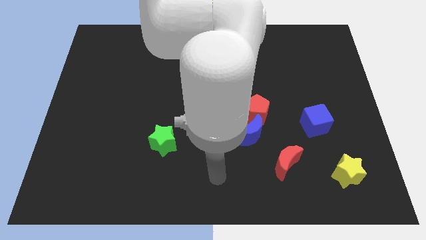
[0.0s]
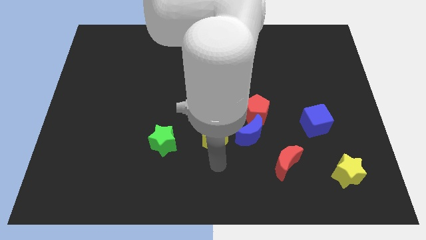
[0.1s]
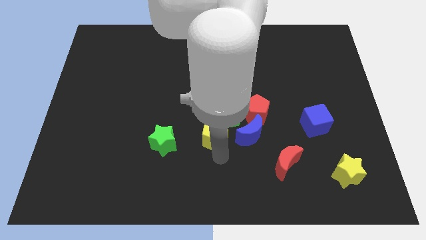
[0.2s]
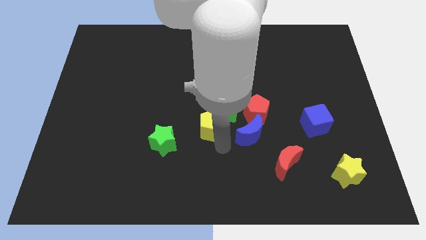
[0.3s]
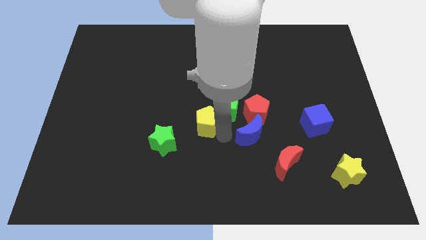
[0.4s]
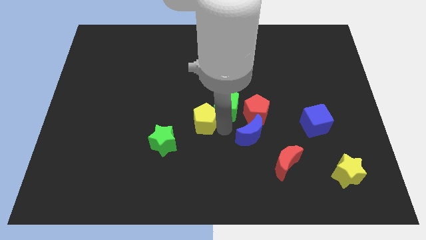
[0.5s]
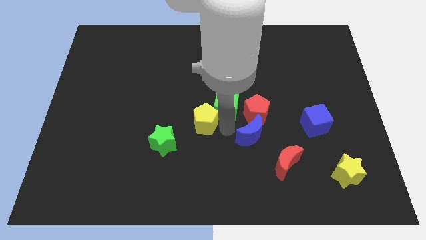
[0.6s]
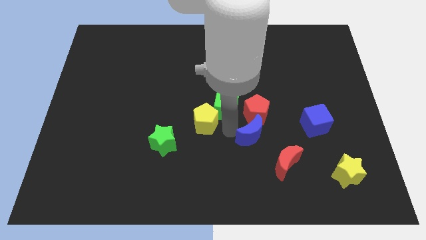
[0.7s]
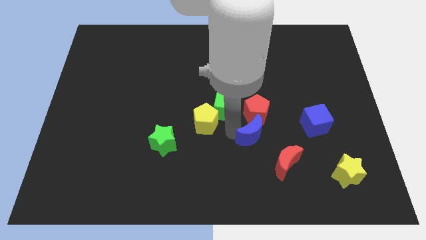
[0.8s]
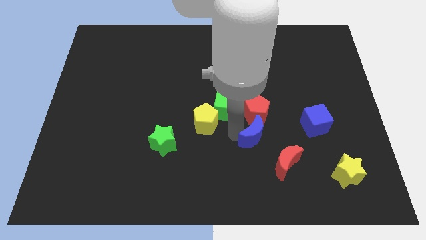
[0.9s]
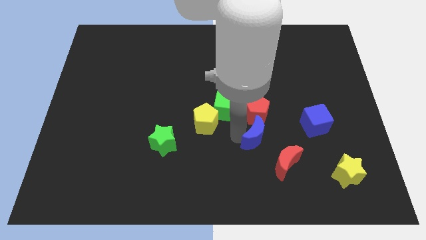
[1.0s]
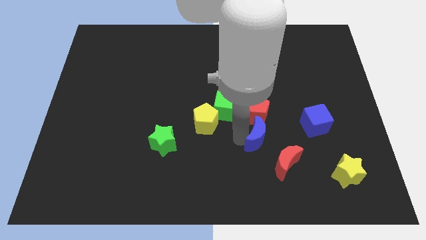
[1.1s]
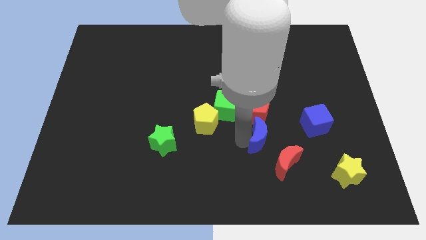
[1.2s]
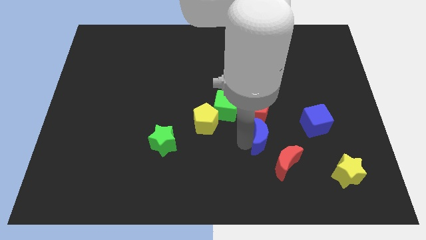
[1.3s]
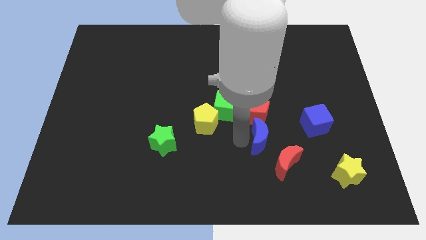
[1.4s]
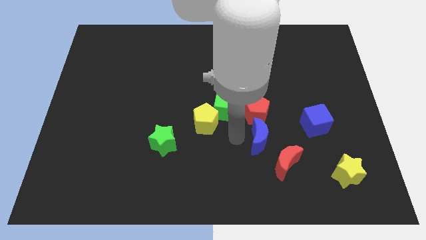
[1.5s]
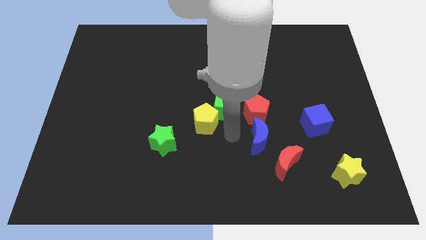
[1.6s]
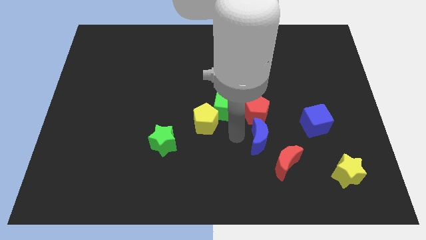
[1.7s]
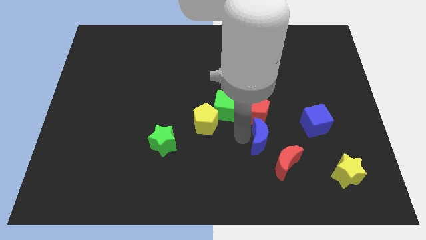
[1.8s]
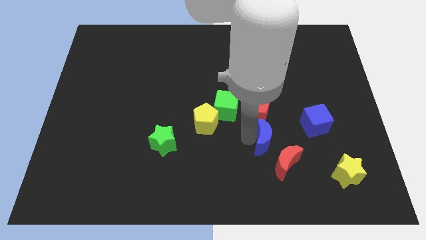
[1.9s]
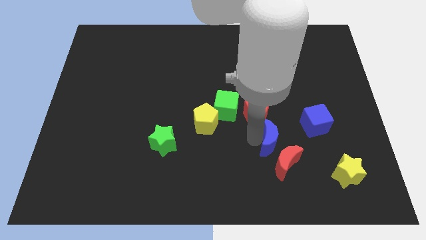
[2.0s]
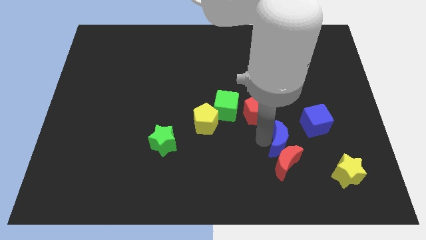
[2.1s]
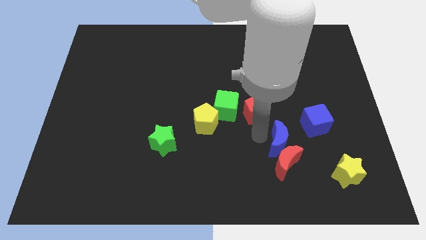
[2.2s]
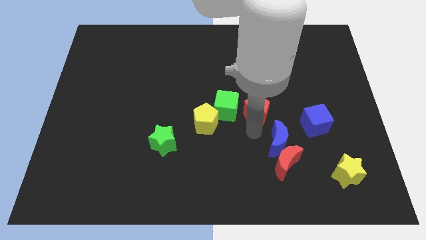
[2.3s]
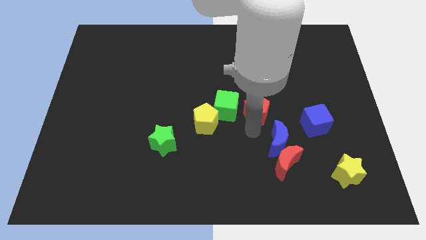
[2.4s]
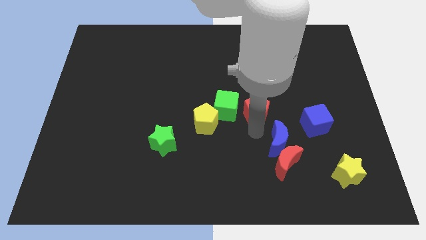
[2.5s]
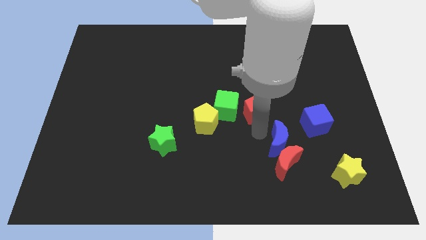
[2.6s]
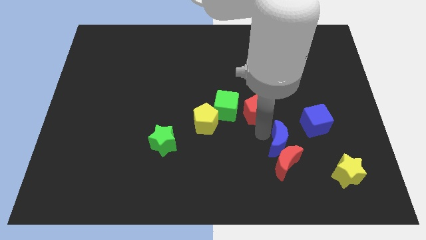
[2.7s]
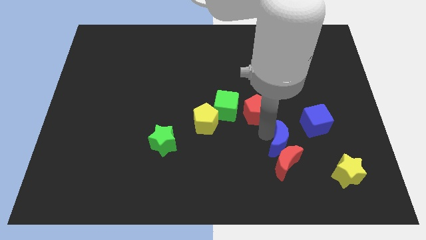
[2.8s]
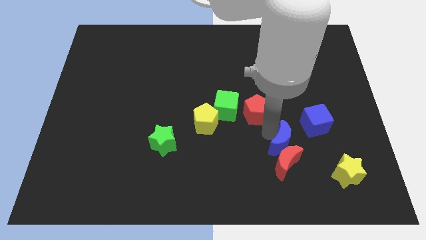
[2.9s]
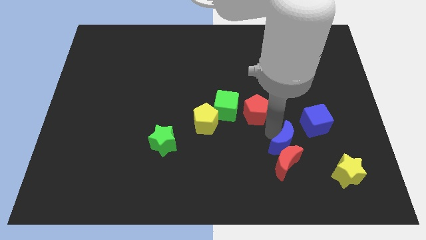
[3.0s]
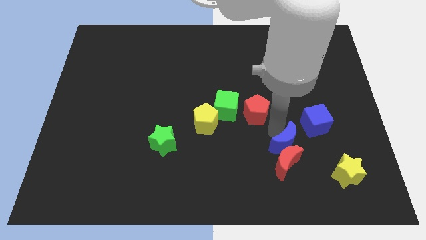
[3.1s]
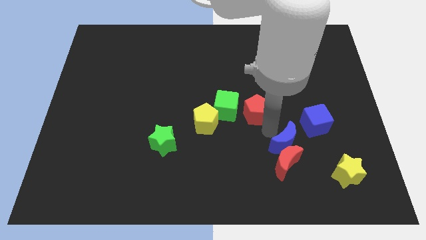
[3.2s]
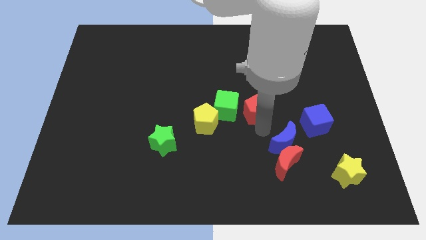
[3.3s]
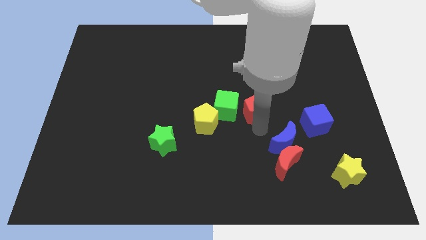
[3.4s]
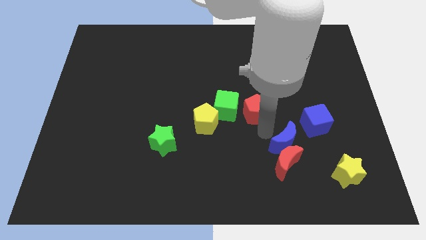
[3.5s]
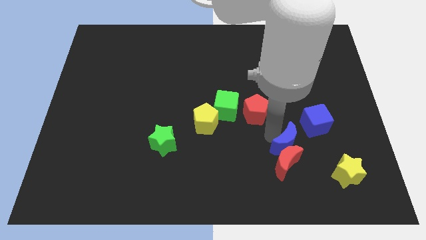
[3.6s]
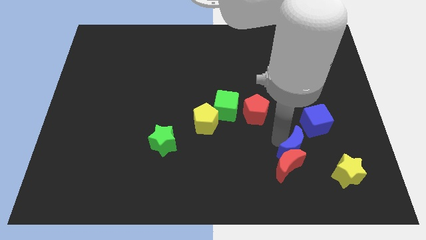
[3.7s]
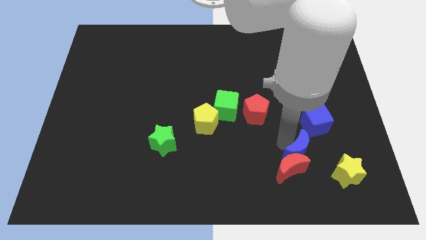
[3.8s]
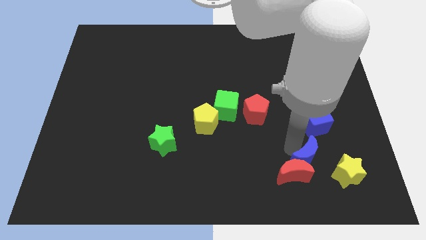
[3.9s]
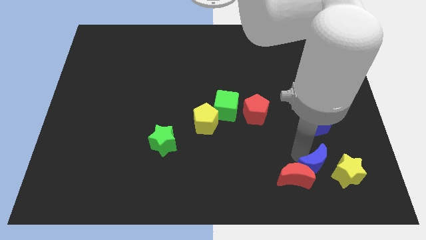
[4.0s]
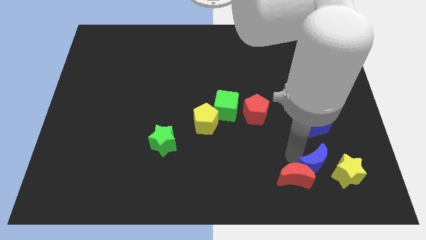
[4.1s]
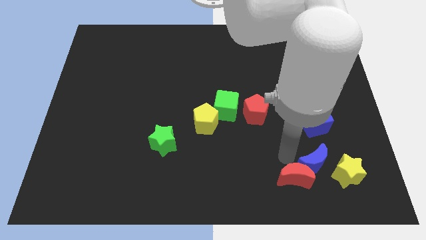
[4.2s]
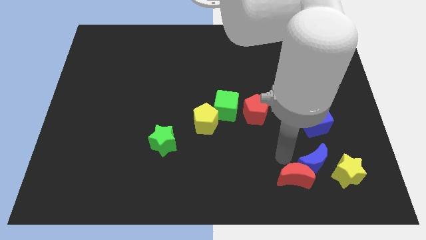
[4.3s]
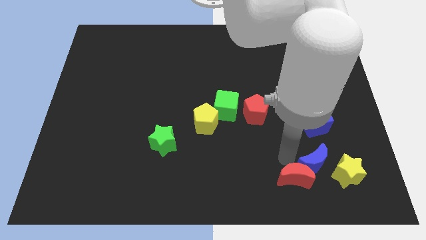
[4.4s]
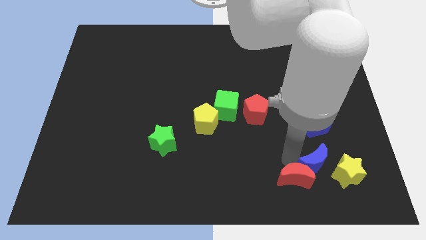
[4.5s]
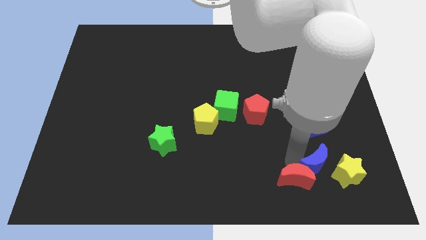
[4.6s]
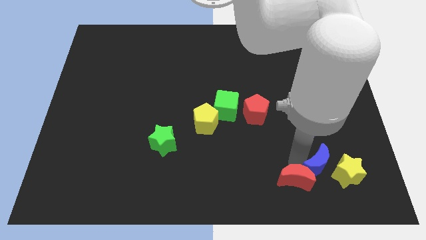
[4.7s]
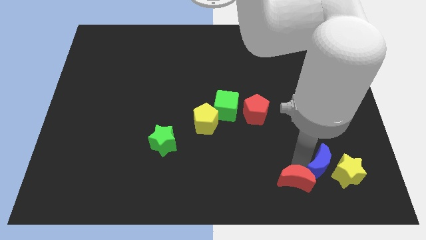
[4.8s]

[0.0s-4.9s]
slide the blue moon to the yellow star

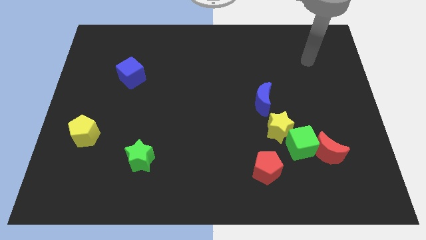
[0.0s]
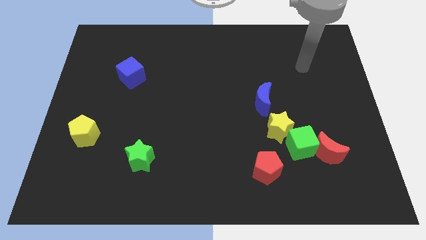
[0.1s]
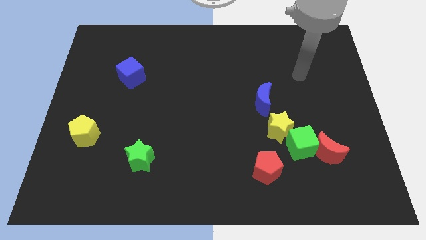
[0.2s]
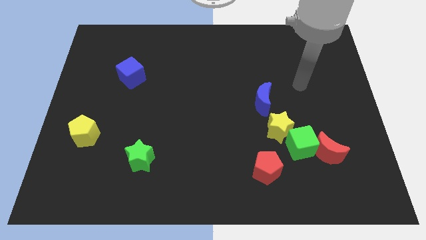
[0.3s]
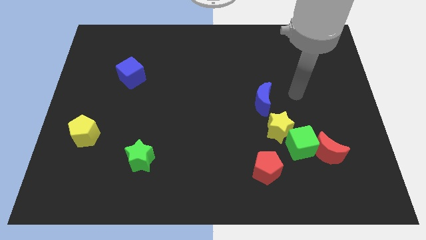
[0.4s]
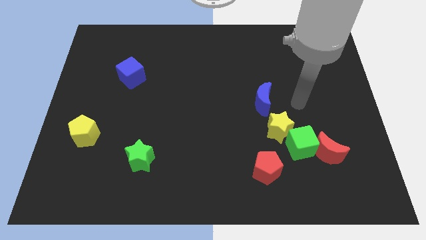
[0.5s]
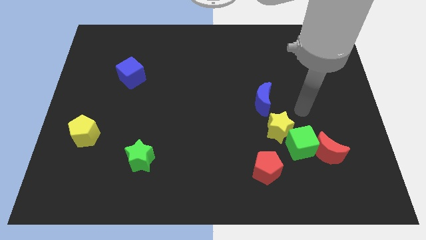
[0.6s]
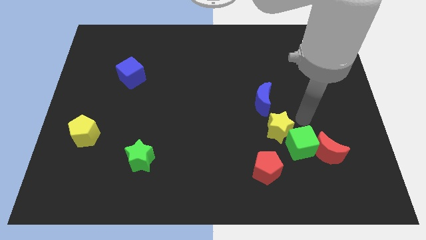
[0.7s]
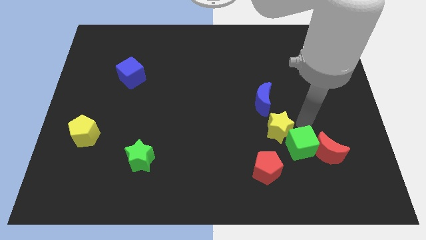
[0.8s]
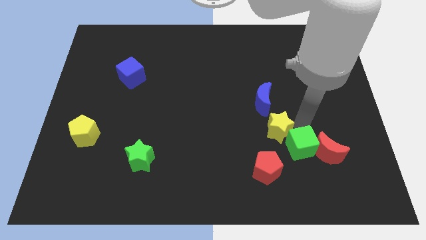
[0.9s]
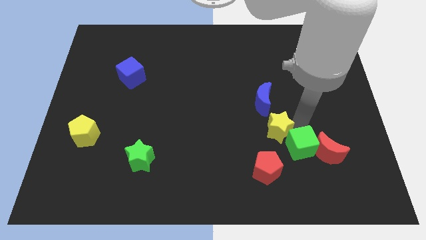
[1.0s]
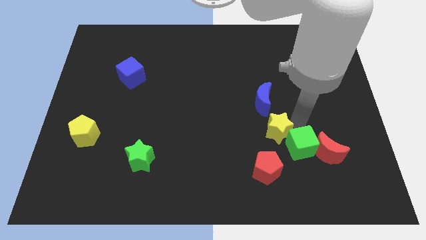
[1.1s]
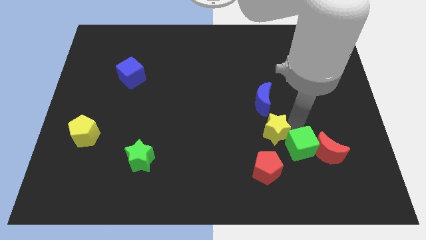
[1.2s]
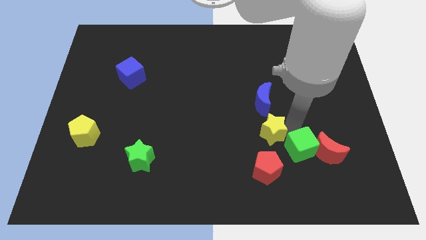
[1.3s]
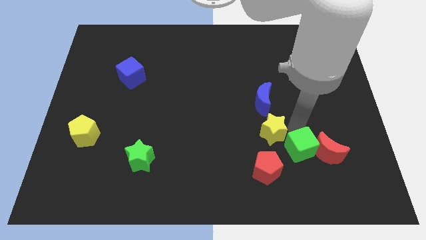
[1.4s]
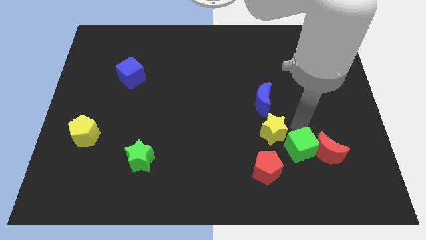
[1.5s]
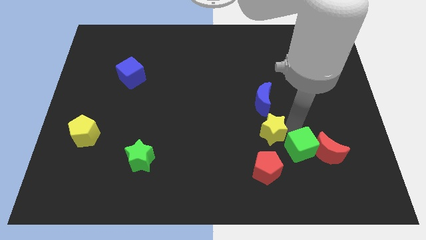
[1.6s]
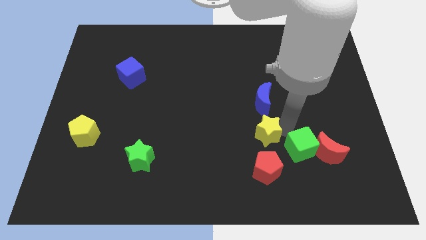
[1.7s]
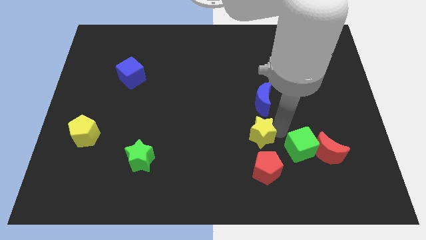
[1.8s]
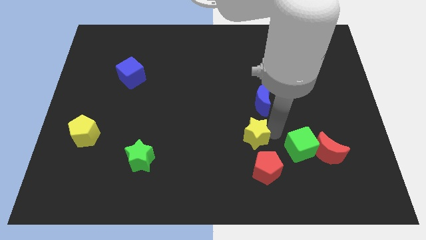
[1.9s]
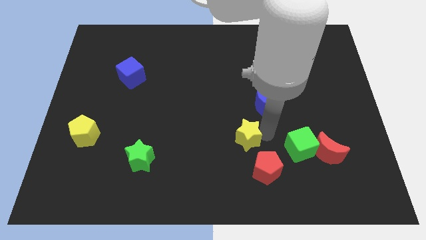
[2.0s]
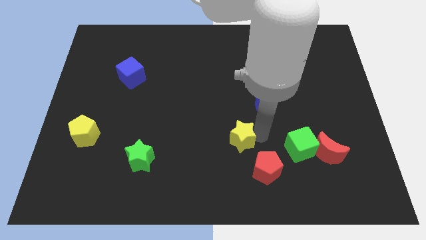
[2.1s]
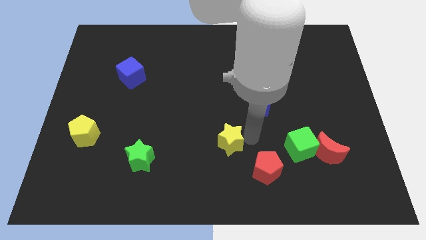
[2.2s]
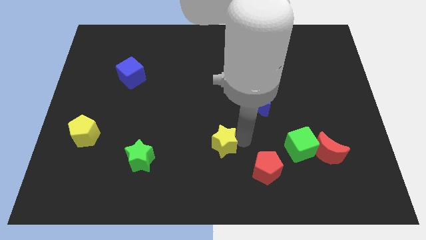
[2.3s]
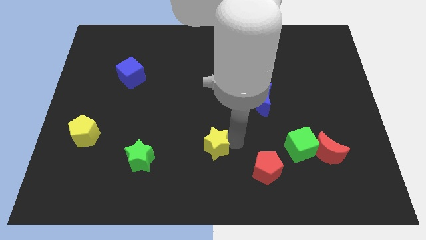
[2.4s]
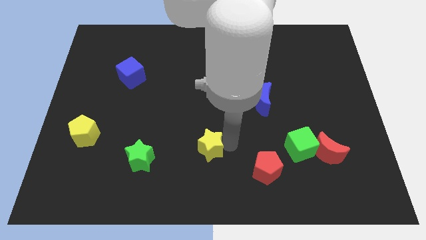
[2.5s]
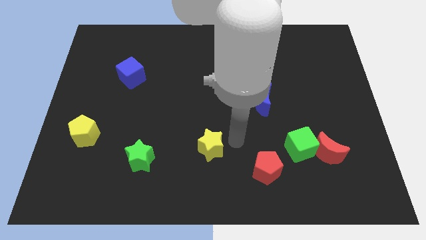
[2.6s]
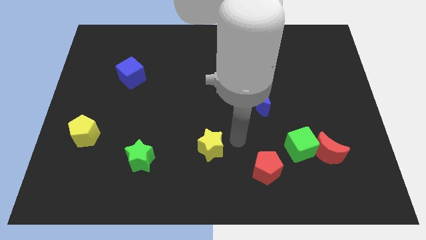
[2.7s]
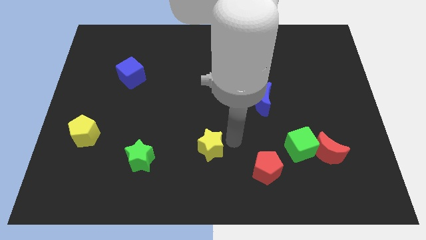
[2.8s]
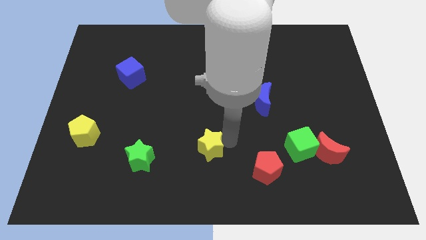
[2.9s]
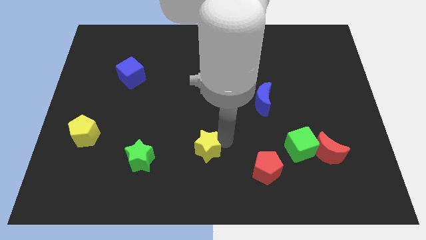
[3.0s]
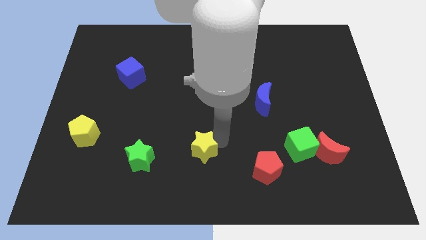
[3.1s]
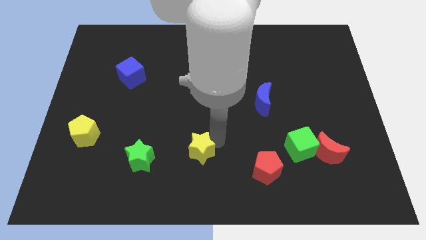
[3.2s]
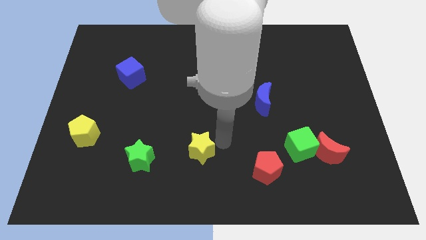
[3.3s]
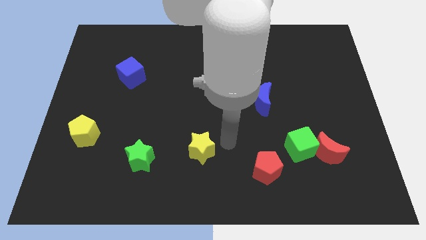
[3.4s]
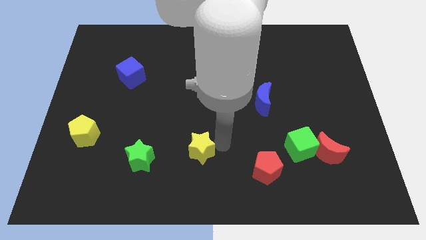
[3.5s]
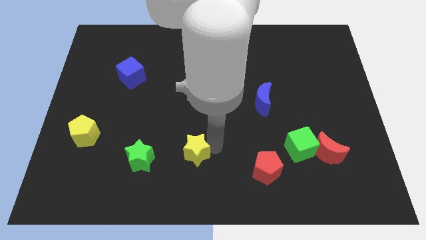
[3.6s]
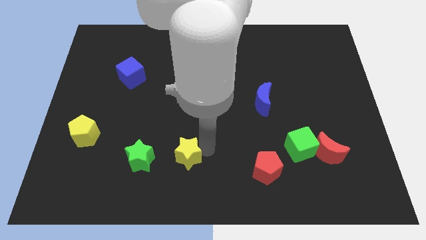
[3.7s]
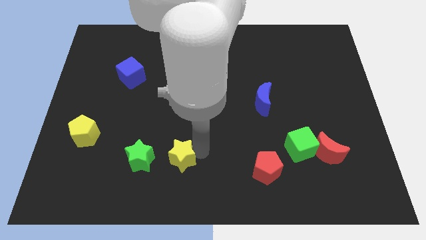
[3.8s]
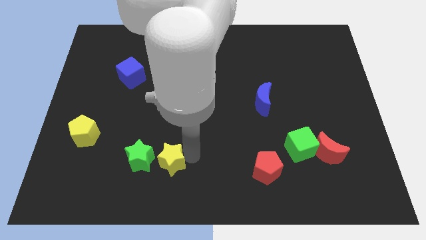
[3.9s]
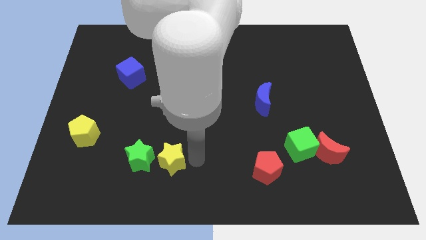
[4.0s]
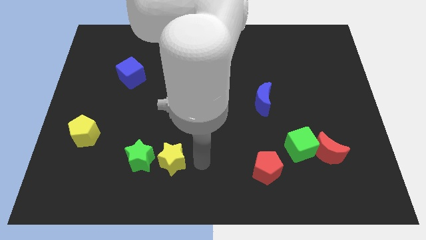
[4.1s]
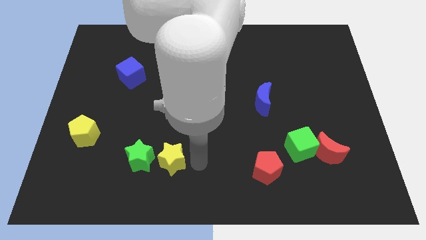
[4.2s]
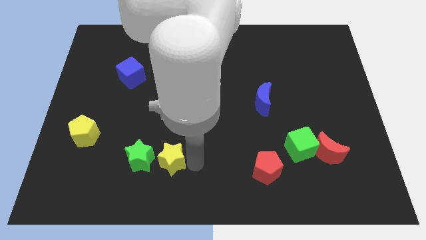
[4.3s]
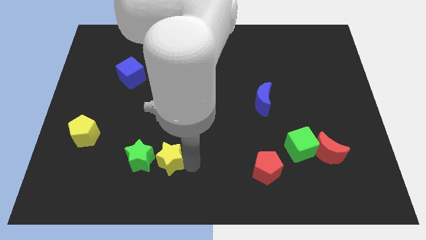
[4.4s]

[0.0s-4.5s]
move the yellow star next to the green star
